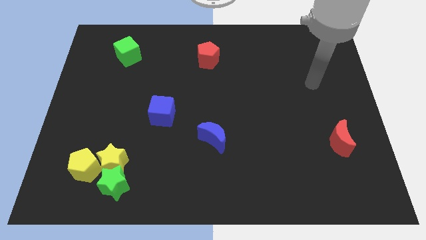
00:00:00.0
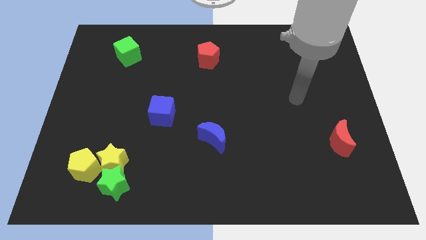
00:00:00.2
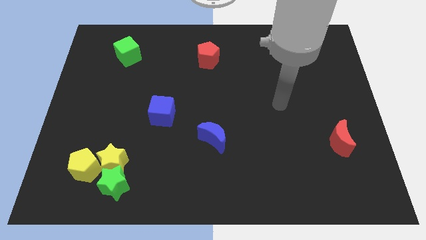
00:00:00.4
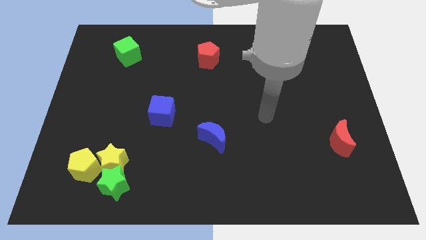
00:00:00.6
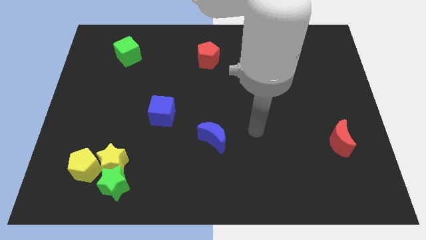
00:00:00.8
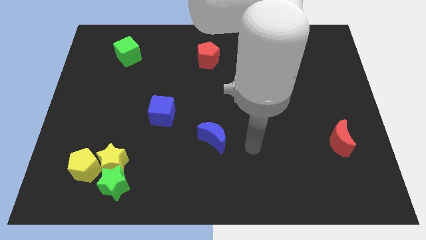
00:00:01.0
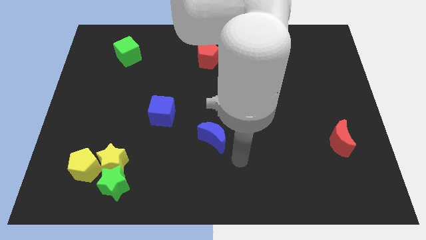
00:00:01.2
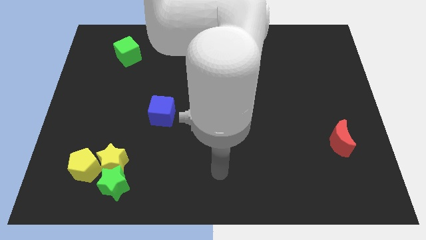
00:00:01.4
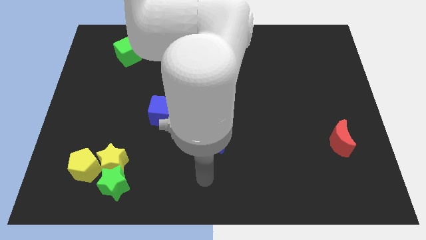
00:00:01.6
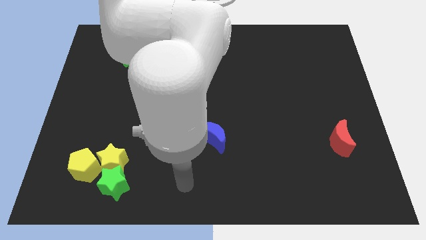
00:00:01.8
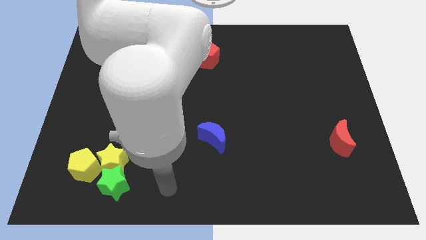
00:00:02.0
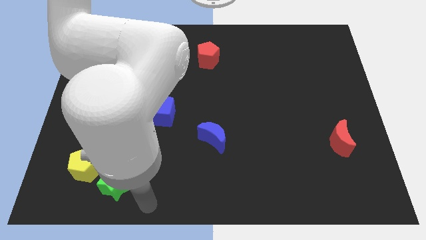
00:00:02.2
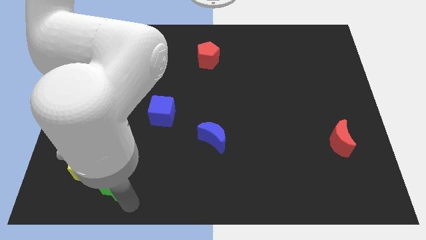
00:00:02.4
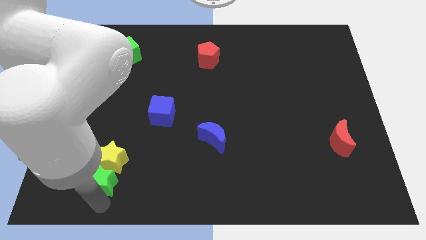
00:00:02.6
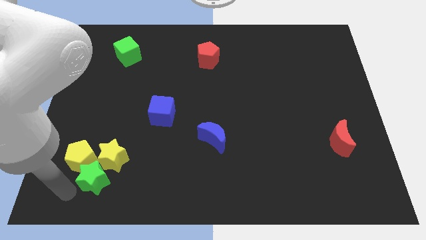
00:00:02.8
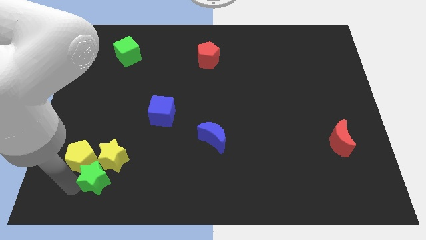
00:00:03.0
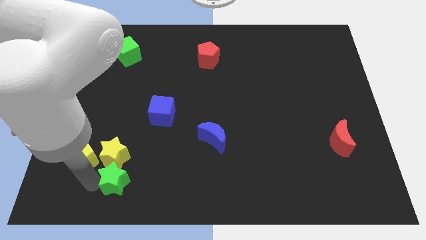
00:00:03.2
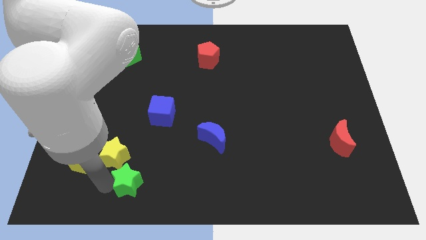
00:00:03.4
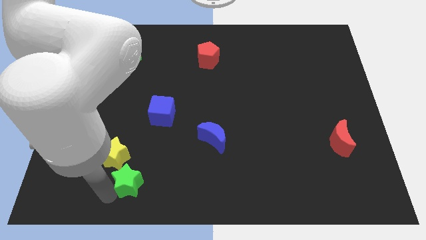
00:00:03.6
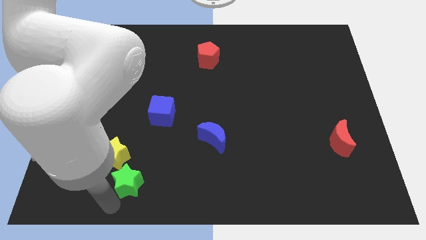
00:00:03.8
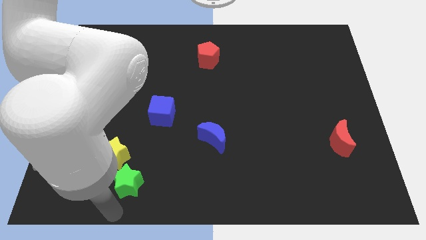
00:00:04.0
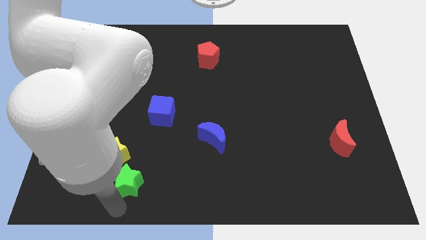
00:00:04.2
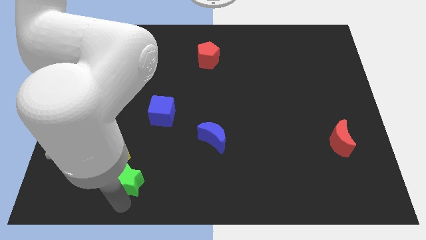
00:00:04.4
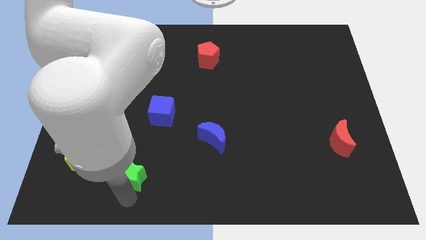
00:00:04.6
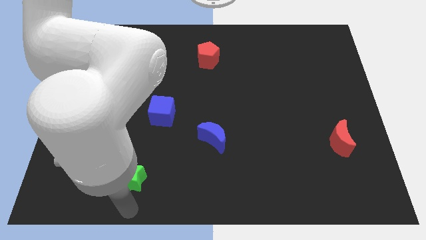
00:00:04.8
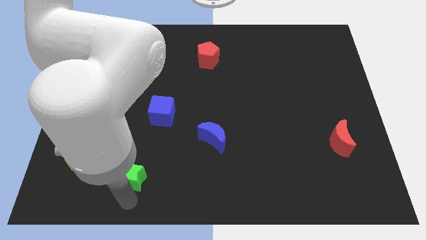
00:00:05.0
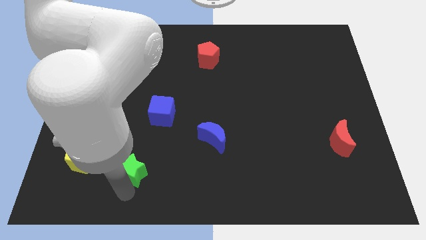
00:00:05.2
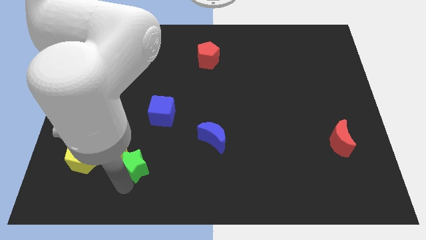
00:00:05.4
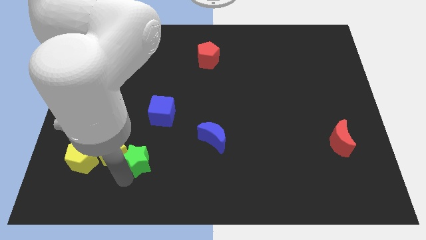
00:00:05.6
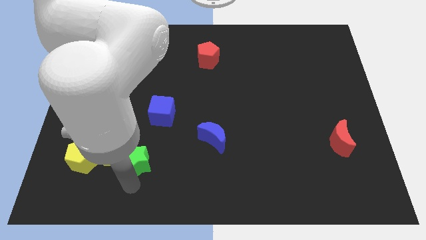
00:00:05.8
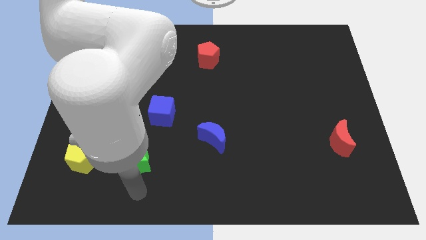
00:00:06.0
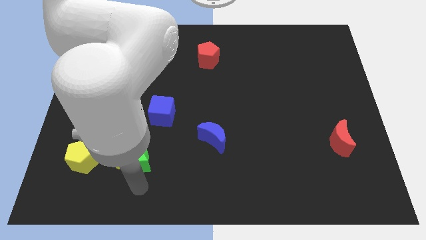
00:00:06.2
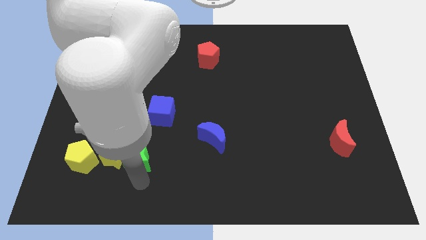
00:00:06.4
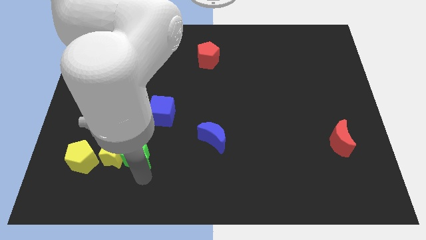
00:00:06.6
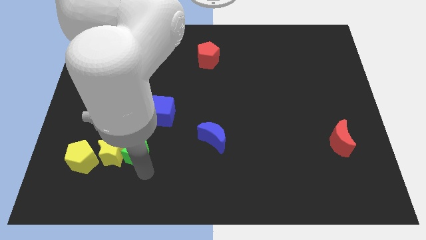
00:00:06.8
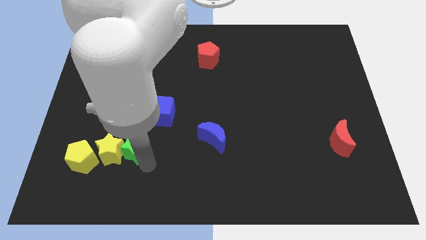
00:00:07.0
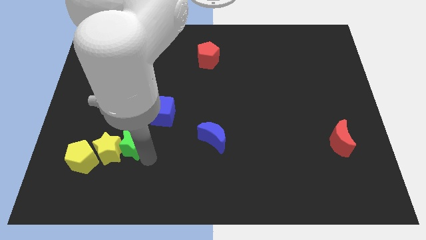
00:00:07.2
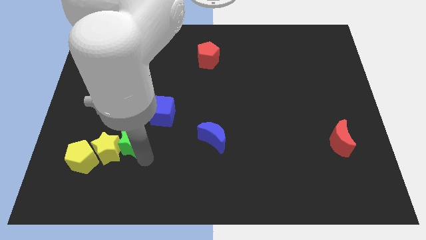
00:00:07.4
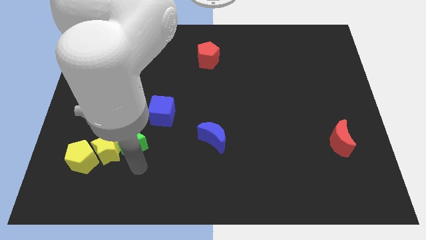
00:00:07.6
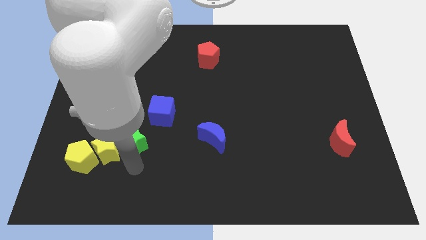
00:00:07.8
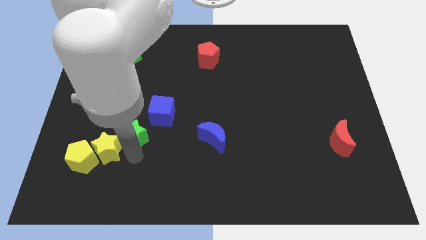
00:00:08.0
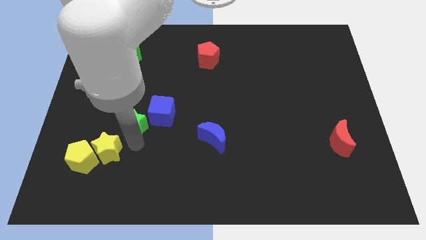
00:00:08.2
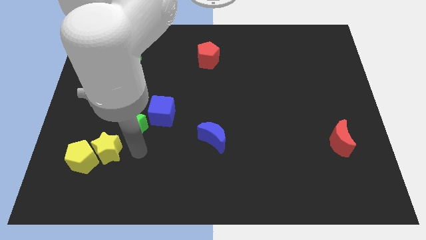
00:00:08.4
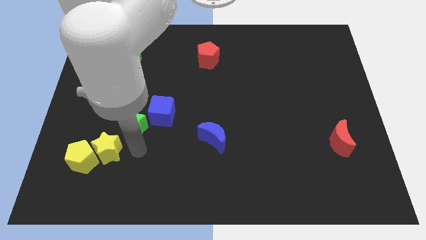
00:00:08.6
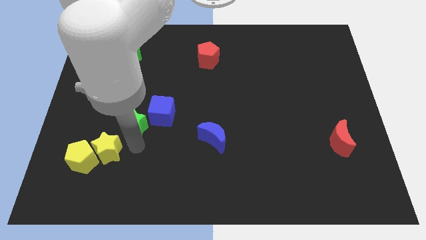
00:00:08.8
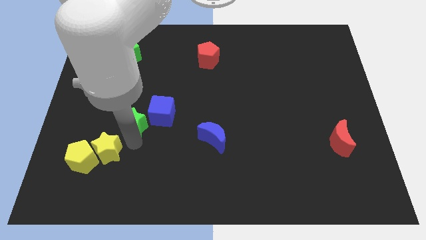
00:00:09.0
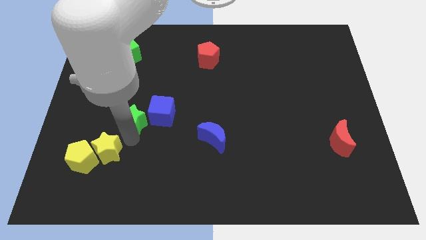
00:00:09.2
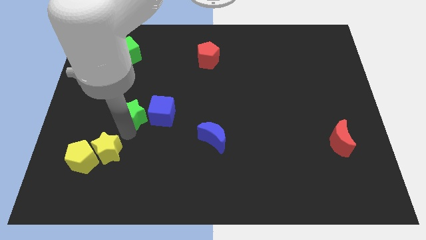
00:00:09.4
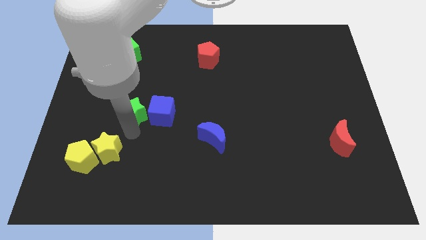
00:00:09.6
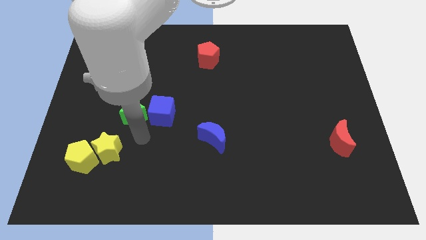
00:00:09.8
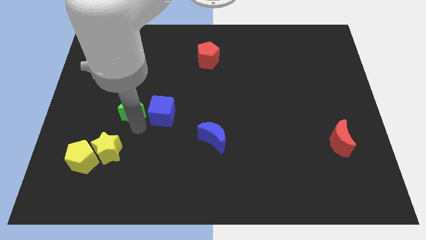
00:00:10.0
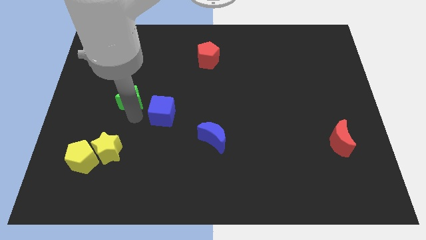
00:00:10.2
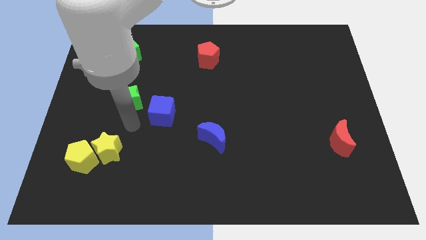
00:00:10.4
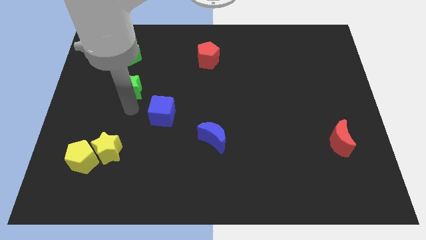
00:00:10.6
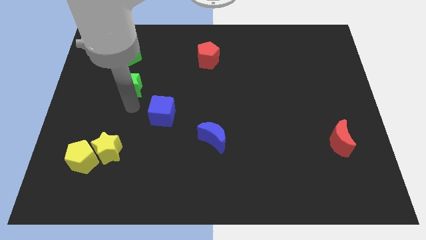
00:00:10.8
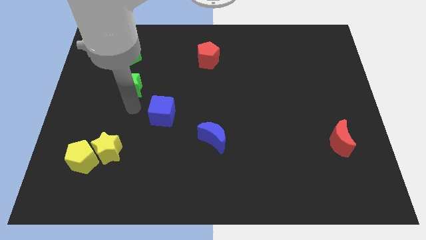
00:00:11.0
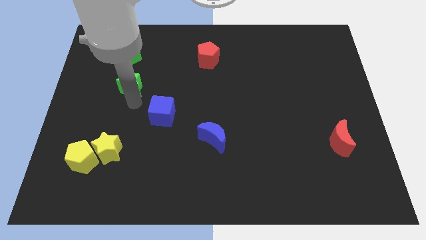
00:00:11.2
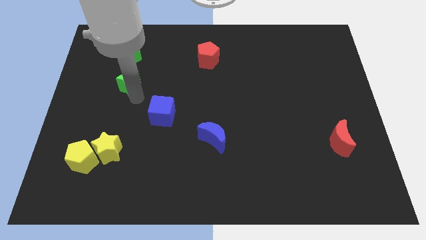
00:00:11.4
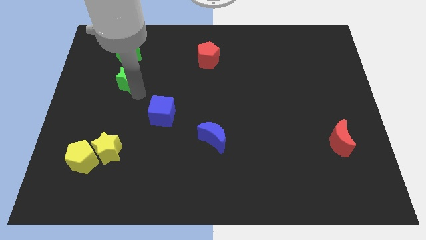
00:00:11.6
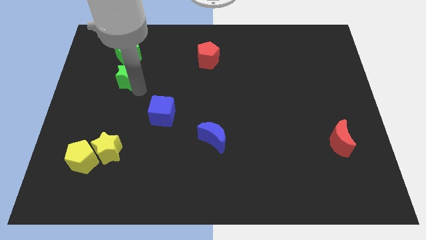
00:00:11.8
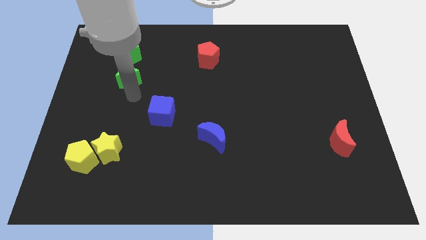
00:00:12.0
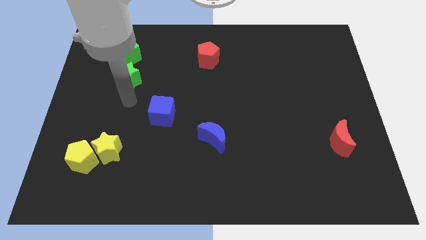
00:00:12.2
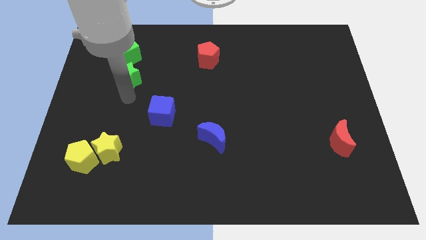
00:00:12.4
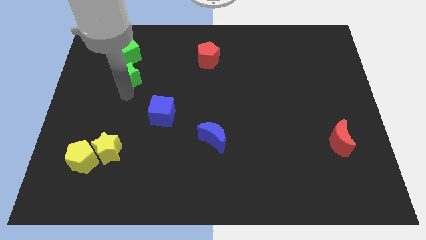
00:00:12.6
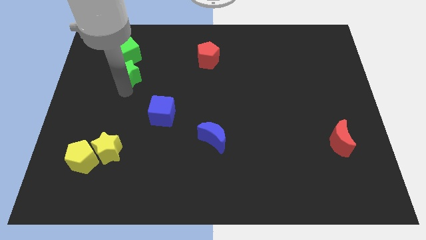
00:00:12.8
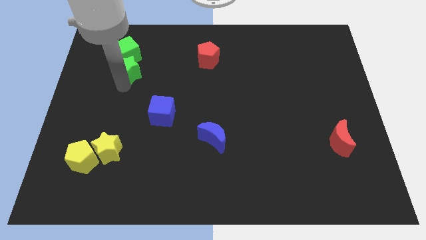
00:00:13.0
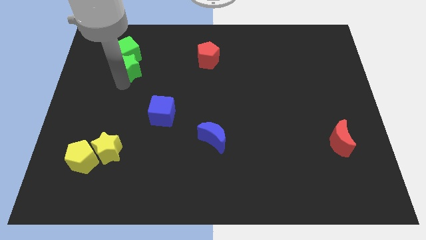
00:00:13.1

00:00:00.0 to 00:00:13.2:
push the green star next to the green cube

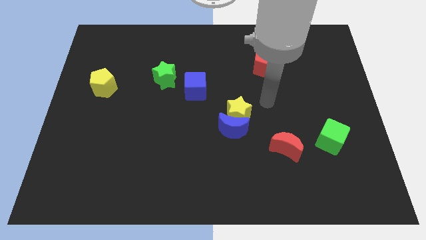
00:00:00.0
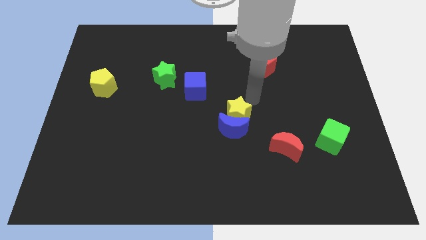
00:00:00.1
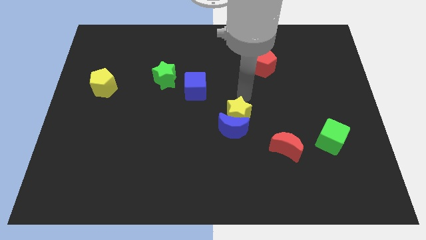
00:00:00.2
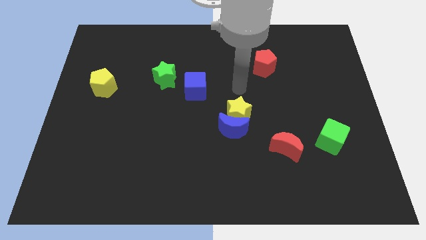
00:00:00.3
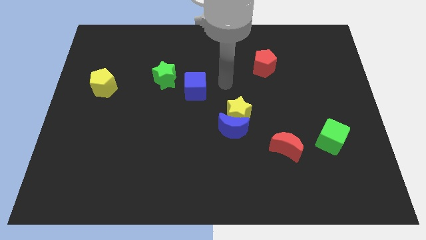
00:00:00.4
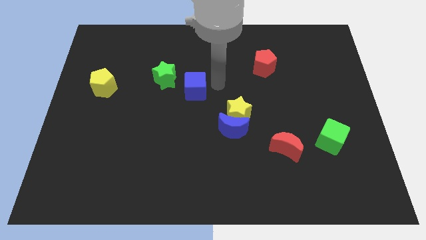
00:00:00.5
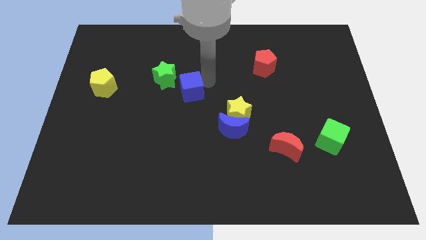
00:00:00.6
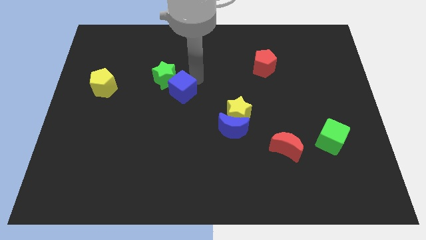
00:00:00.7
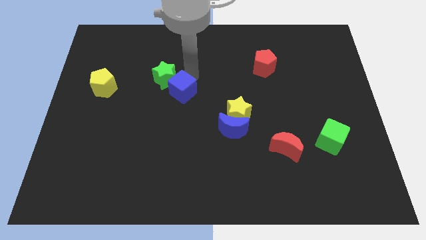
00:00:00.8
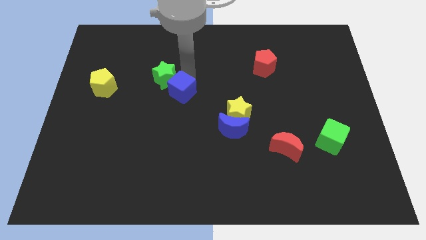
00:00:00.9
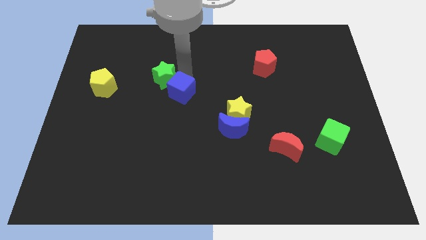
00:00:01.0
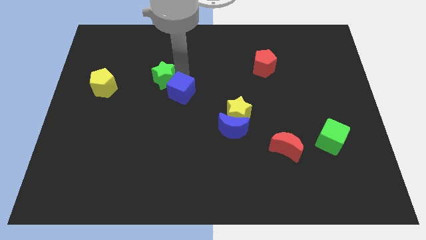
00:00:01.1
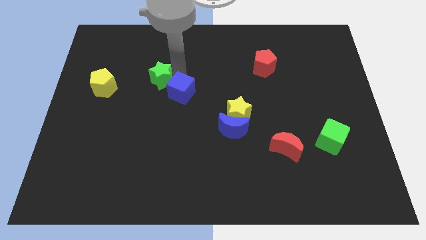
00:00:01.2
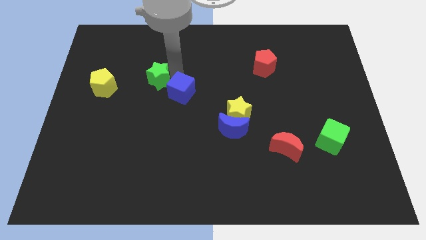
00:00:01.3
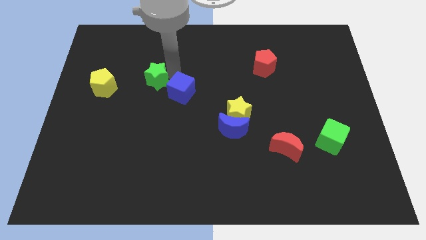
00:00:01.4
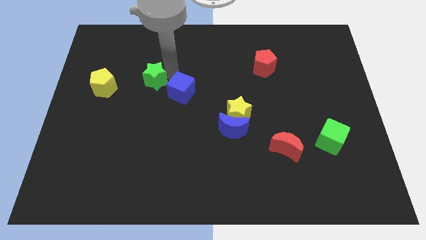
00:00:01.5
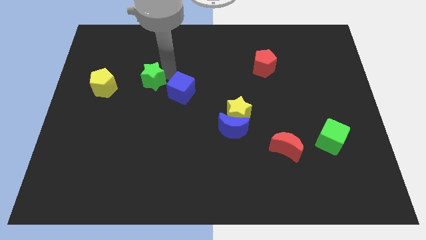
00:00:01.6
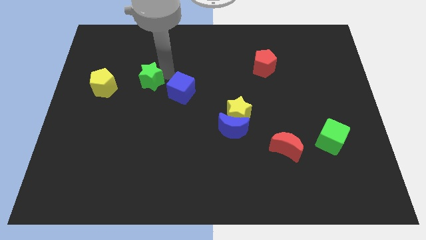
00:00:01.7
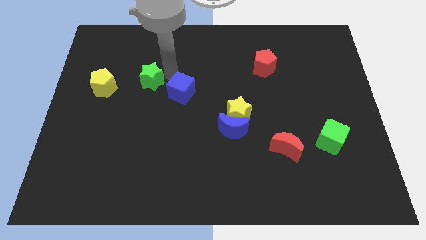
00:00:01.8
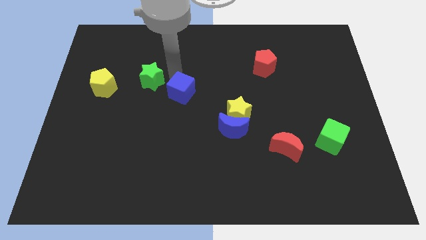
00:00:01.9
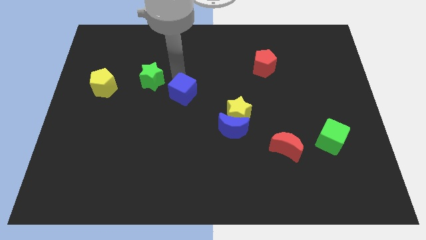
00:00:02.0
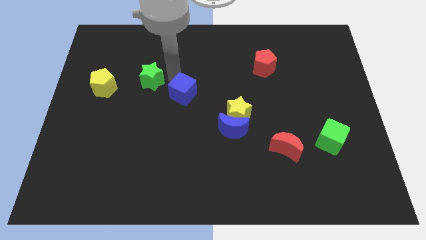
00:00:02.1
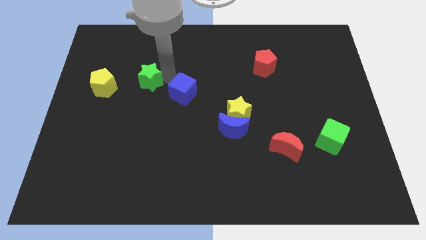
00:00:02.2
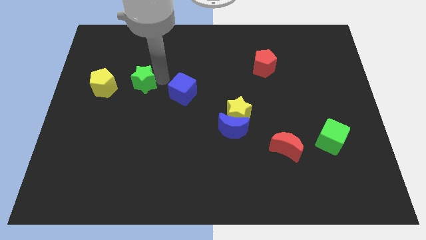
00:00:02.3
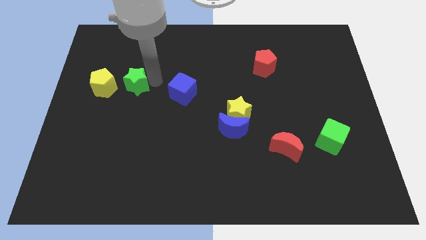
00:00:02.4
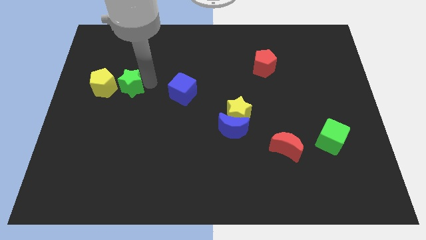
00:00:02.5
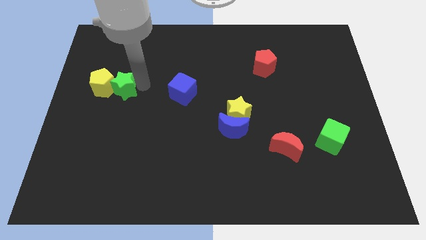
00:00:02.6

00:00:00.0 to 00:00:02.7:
put the green star next to the yellow pentagon
